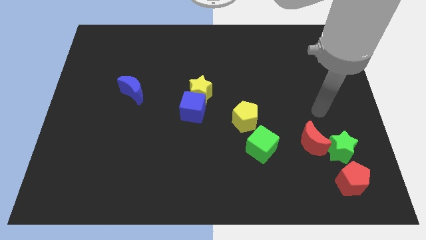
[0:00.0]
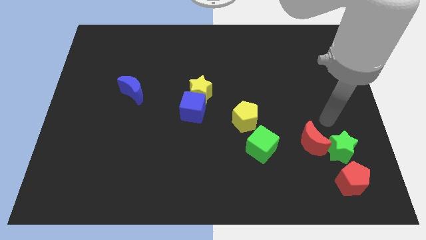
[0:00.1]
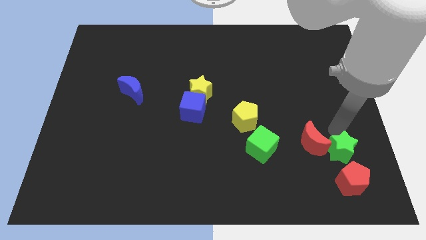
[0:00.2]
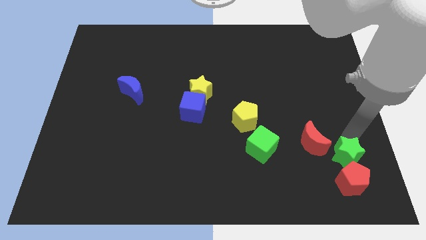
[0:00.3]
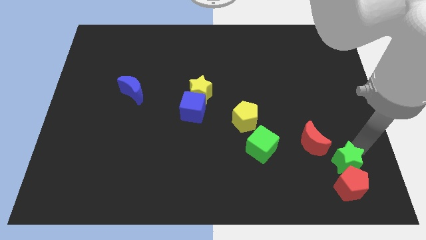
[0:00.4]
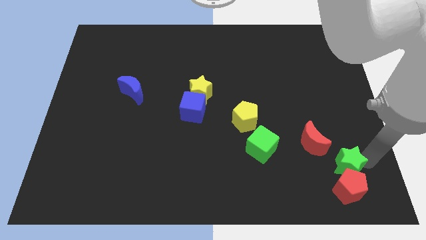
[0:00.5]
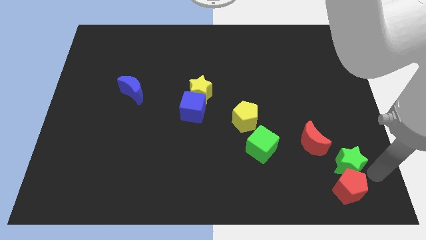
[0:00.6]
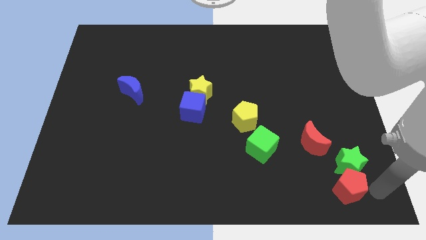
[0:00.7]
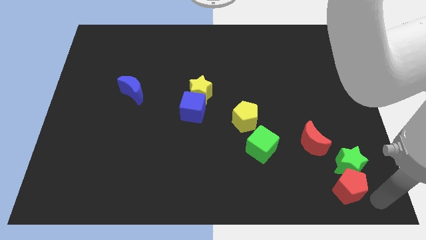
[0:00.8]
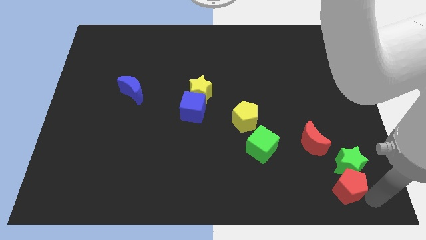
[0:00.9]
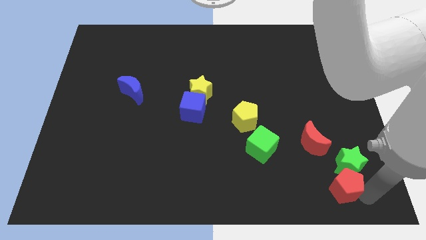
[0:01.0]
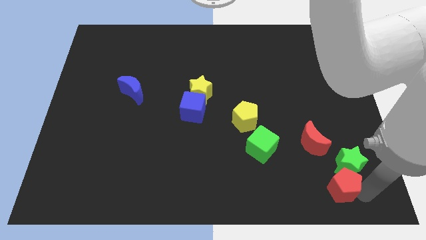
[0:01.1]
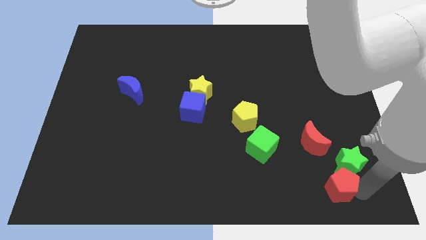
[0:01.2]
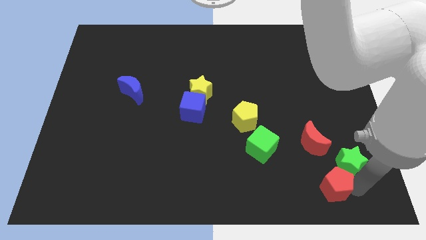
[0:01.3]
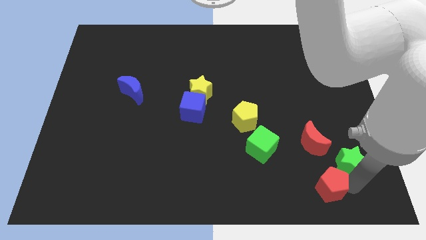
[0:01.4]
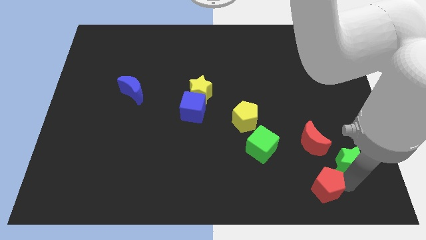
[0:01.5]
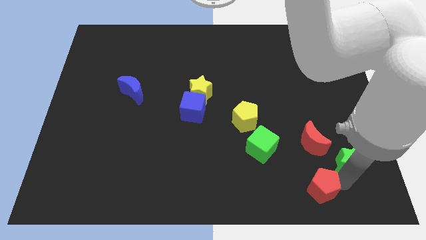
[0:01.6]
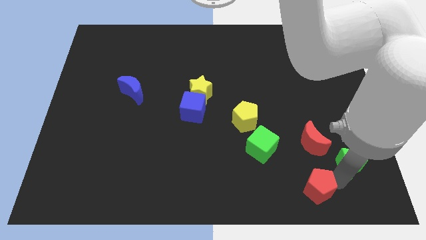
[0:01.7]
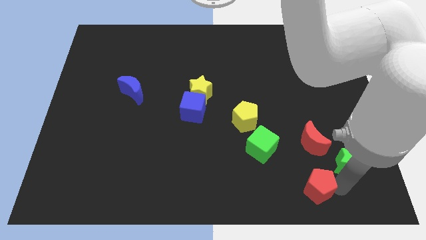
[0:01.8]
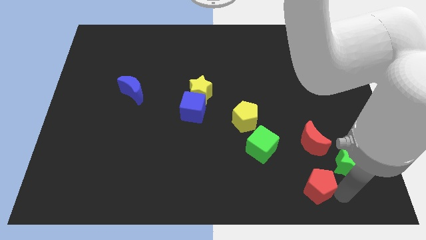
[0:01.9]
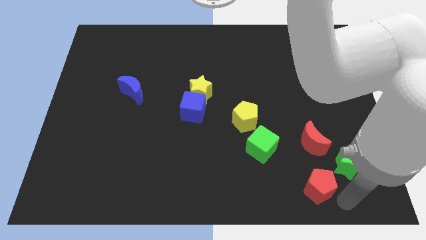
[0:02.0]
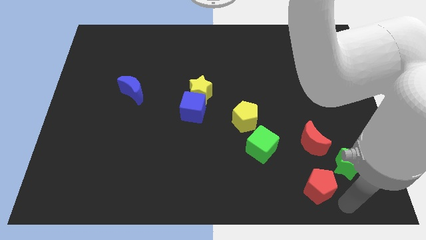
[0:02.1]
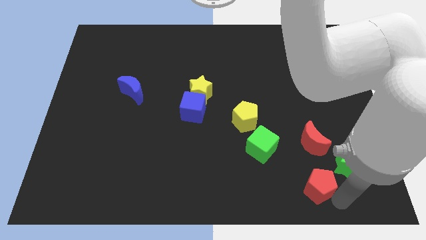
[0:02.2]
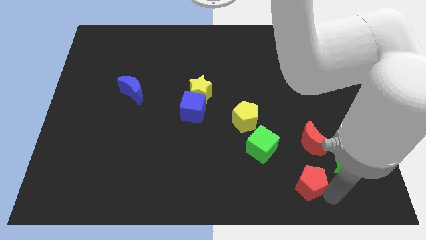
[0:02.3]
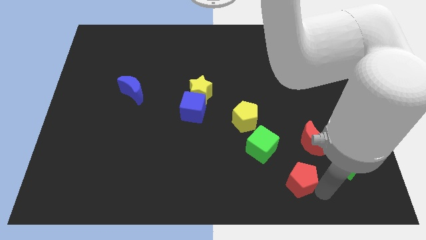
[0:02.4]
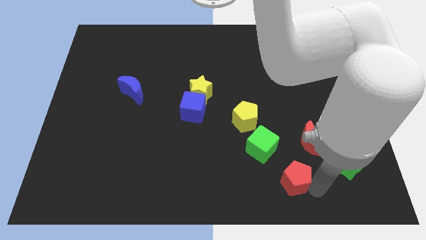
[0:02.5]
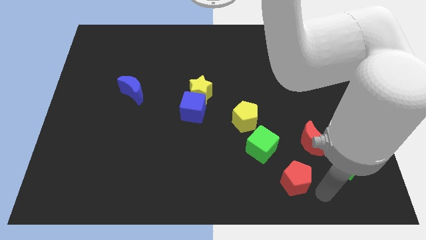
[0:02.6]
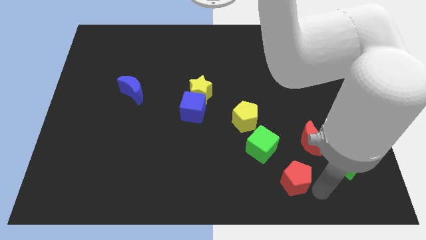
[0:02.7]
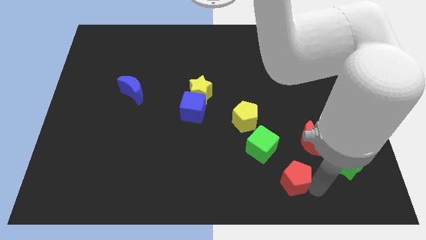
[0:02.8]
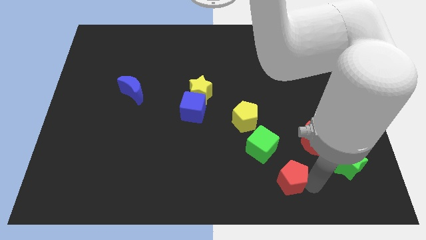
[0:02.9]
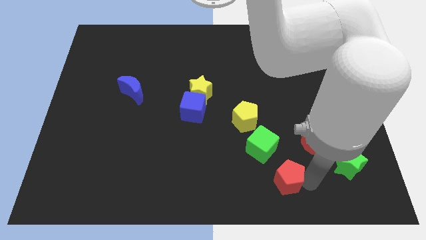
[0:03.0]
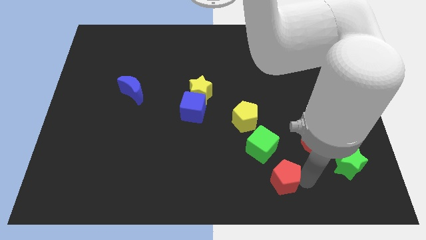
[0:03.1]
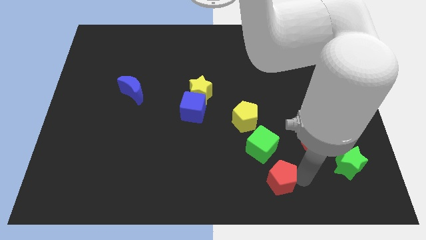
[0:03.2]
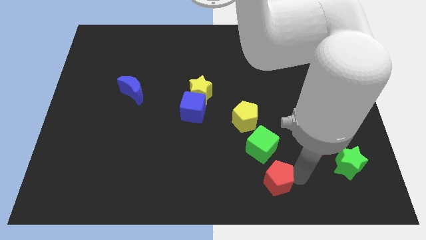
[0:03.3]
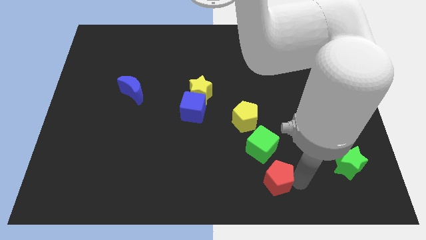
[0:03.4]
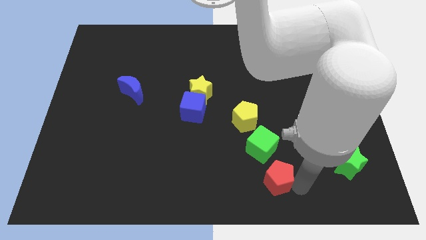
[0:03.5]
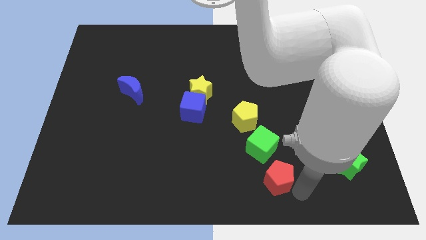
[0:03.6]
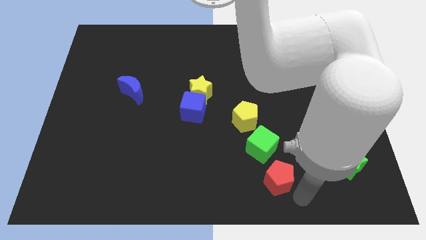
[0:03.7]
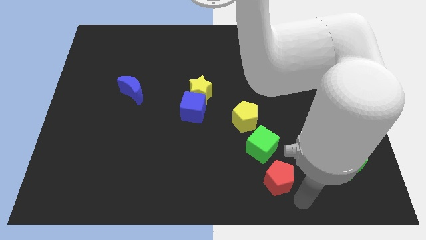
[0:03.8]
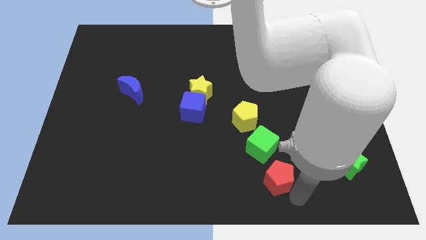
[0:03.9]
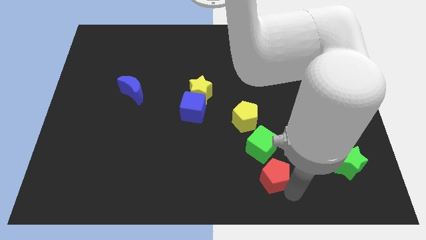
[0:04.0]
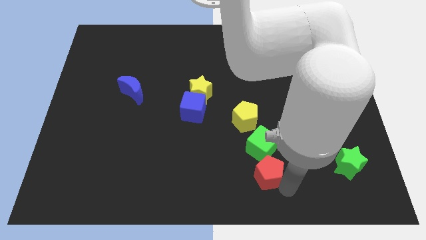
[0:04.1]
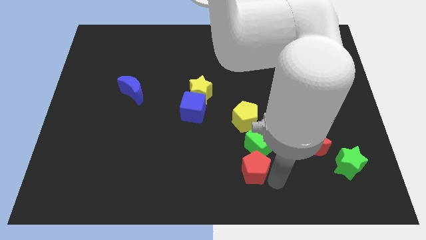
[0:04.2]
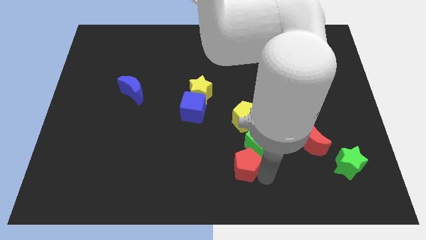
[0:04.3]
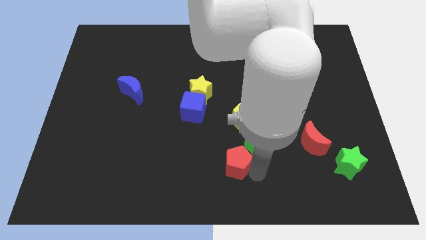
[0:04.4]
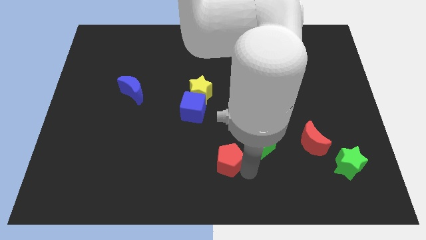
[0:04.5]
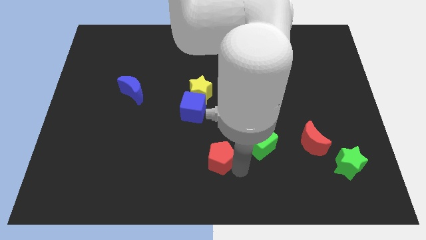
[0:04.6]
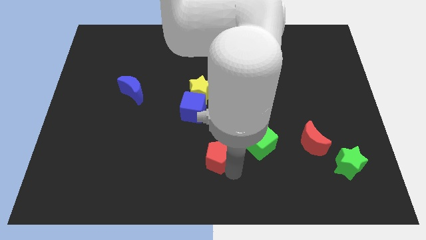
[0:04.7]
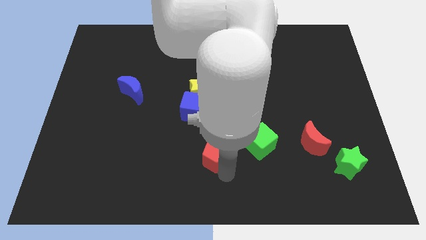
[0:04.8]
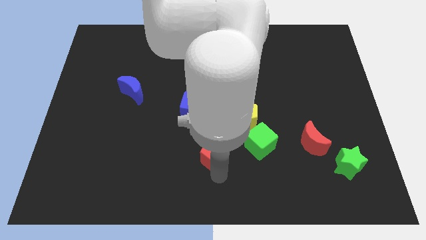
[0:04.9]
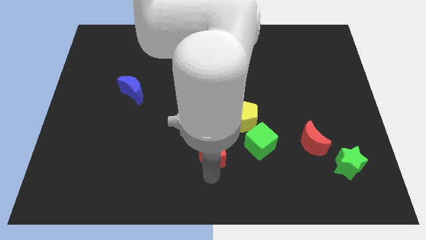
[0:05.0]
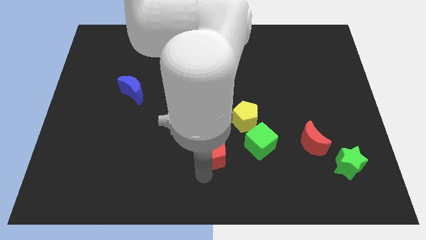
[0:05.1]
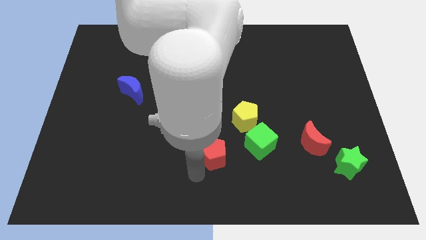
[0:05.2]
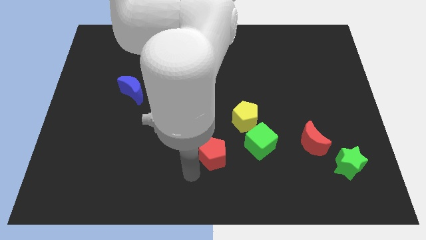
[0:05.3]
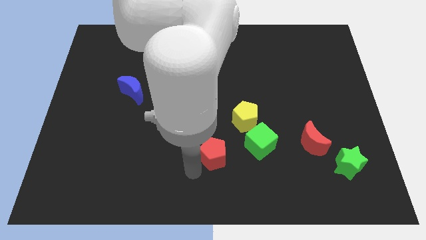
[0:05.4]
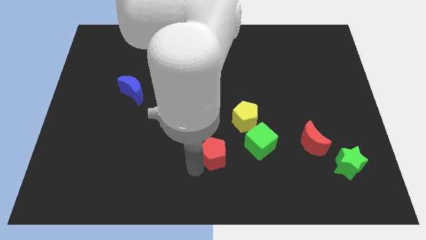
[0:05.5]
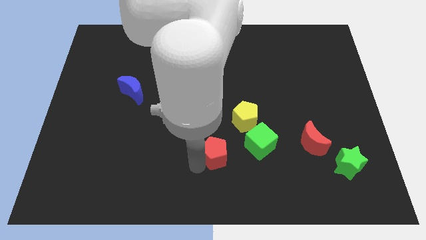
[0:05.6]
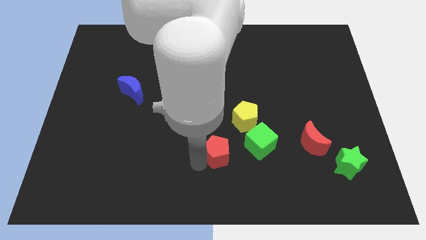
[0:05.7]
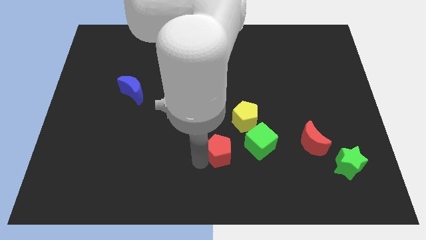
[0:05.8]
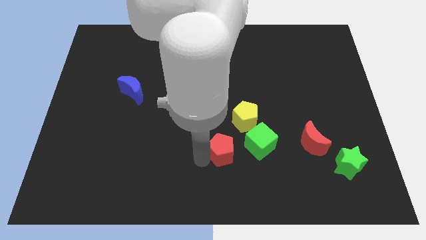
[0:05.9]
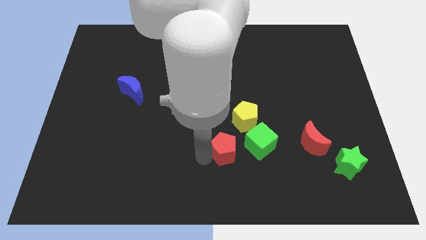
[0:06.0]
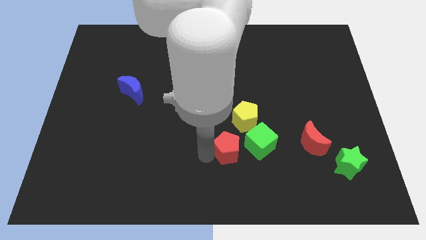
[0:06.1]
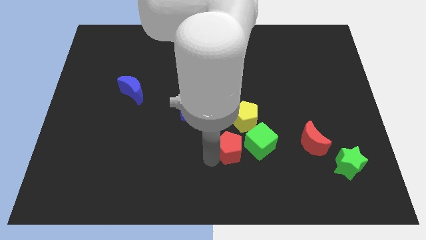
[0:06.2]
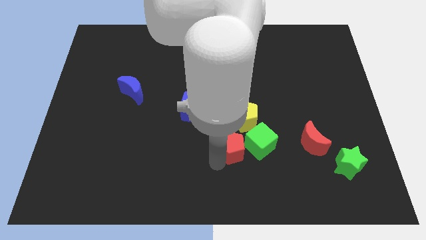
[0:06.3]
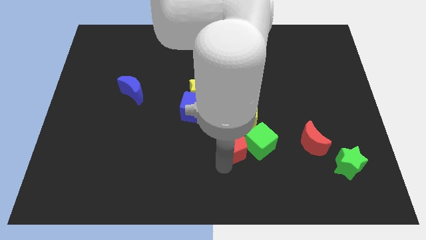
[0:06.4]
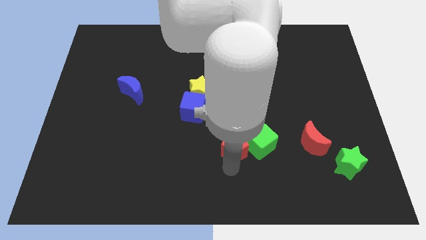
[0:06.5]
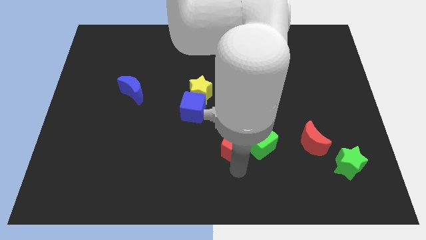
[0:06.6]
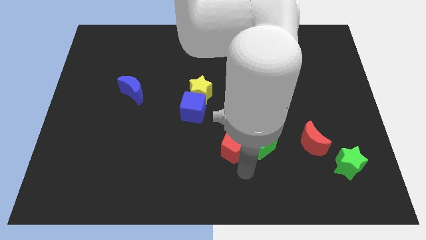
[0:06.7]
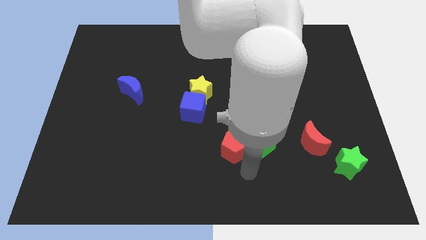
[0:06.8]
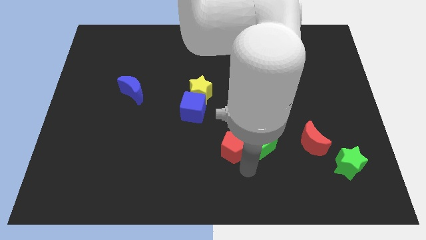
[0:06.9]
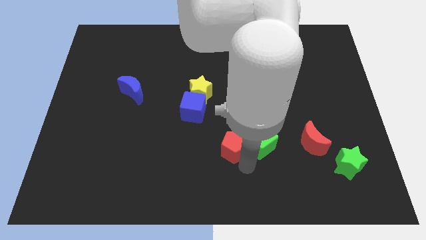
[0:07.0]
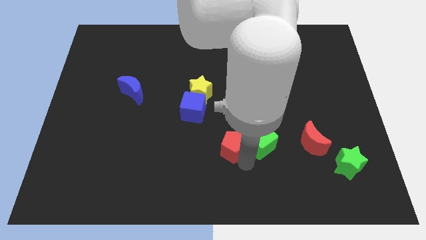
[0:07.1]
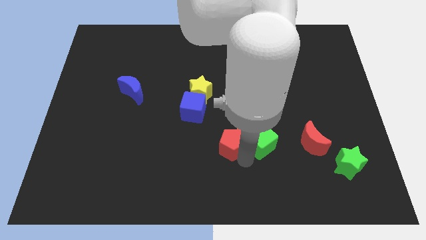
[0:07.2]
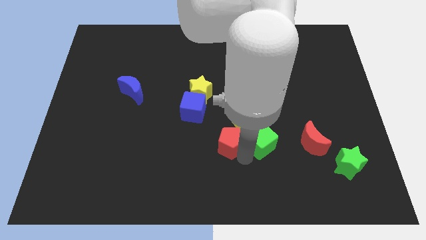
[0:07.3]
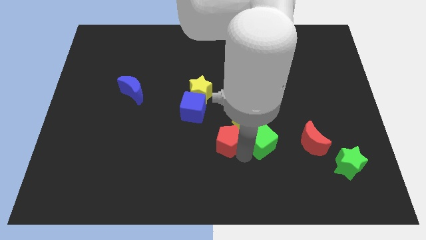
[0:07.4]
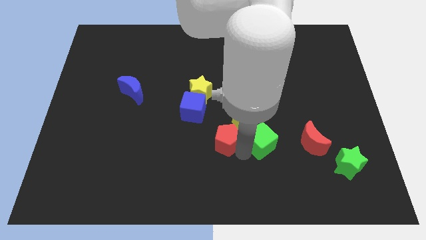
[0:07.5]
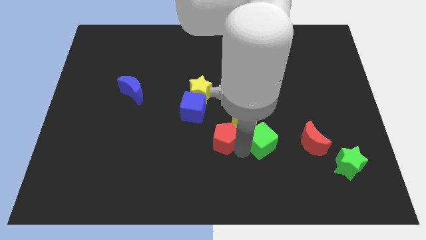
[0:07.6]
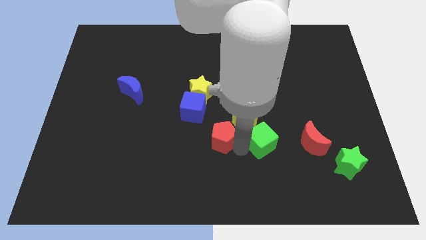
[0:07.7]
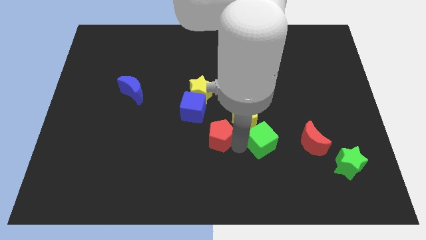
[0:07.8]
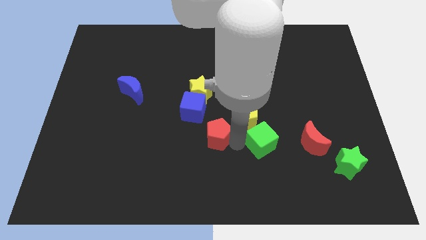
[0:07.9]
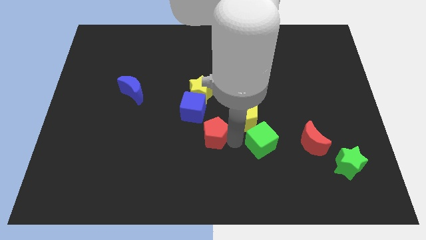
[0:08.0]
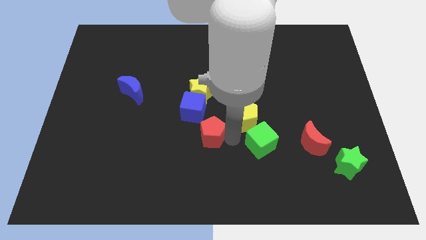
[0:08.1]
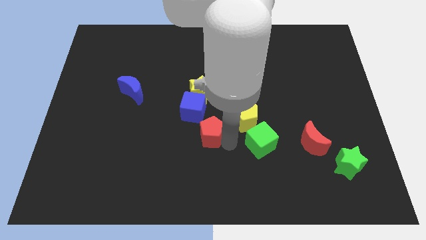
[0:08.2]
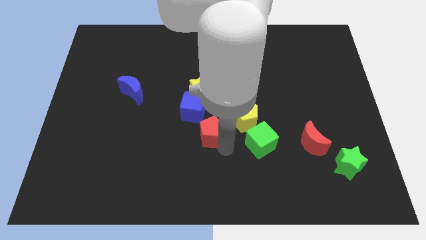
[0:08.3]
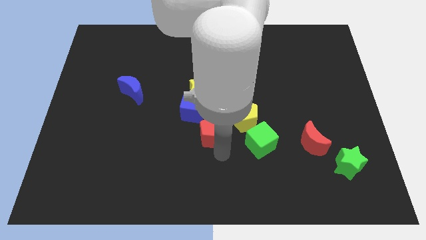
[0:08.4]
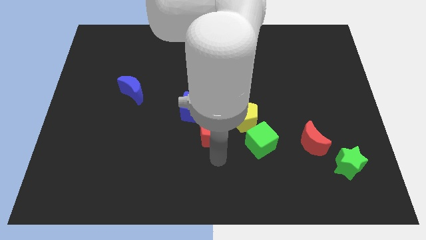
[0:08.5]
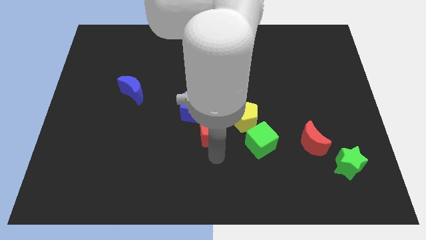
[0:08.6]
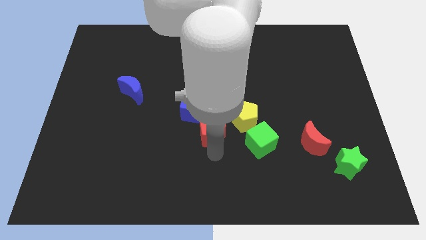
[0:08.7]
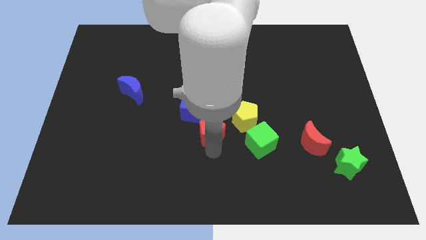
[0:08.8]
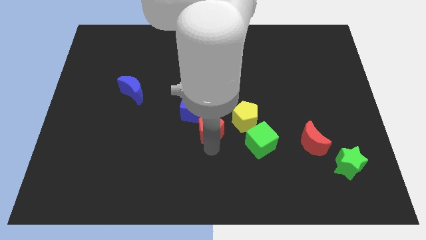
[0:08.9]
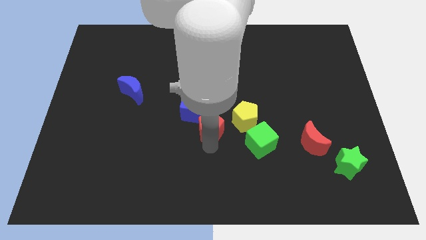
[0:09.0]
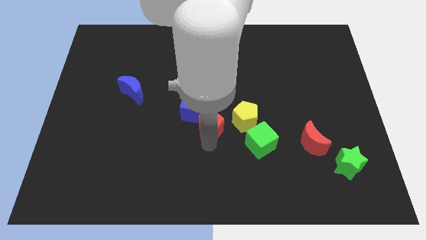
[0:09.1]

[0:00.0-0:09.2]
put the red pentagon to the blue cube
